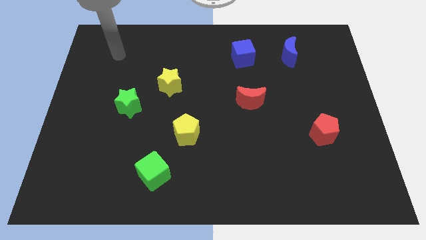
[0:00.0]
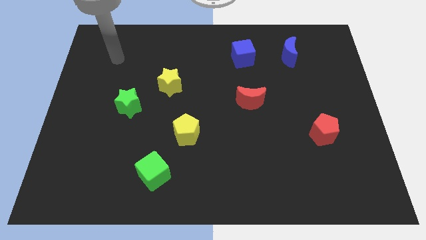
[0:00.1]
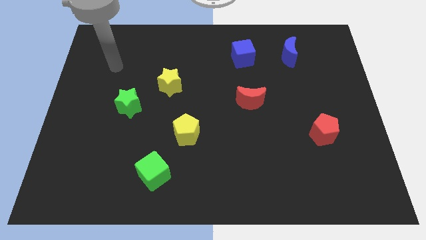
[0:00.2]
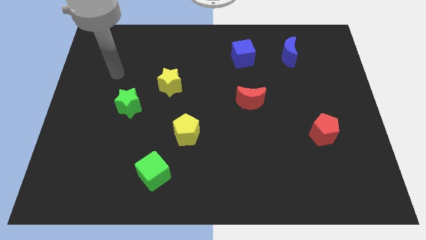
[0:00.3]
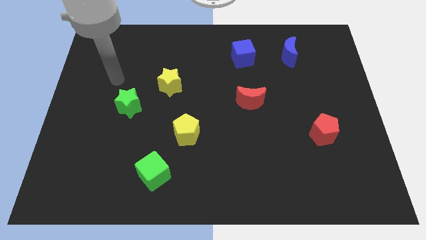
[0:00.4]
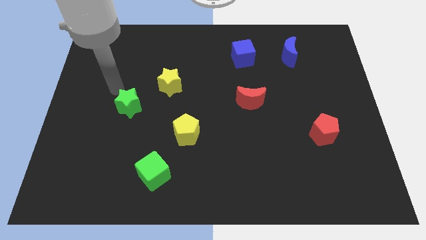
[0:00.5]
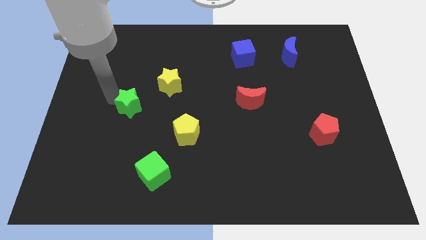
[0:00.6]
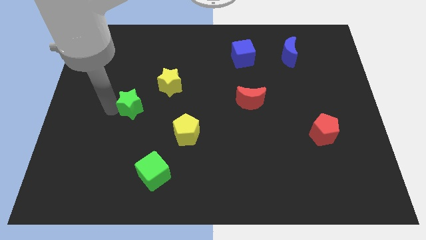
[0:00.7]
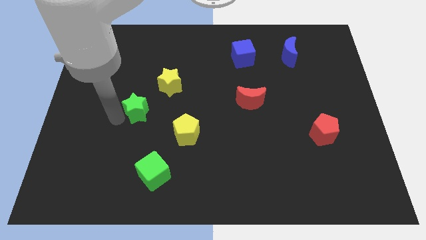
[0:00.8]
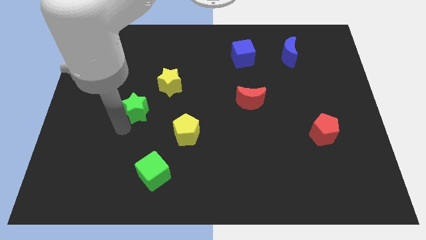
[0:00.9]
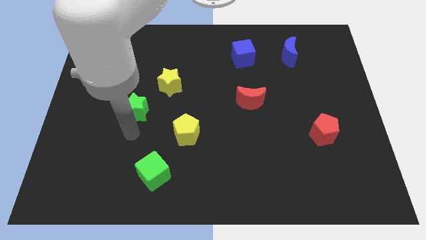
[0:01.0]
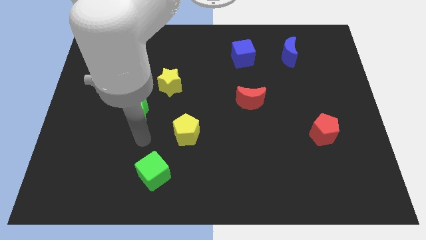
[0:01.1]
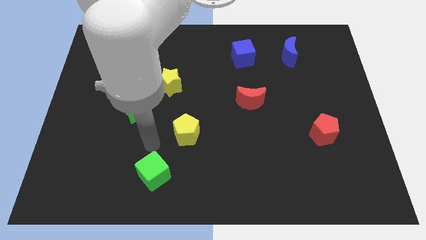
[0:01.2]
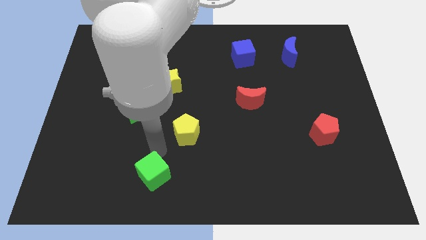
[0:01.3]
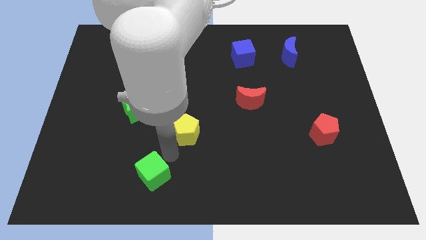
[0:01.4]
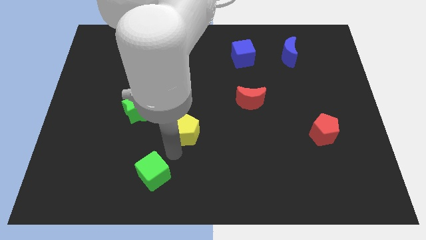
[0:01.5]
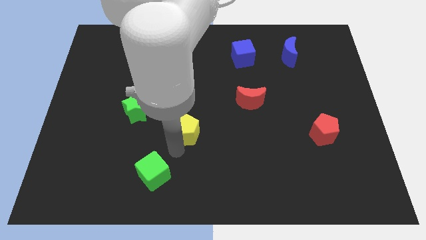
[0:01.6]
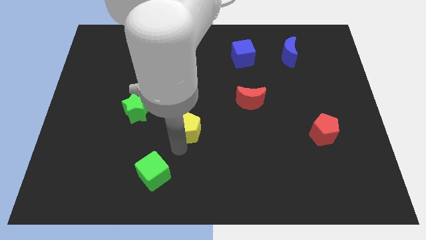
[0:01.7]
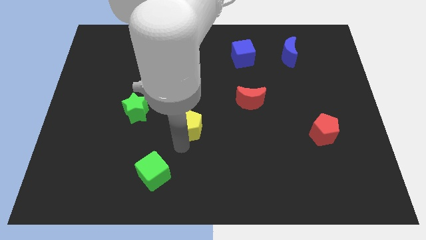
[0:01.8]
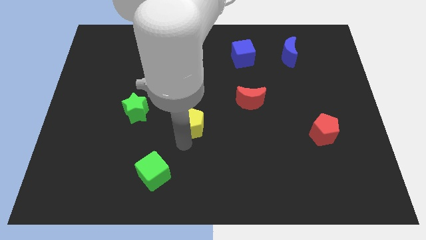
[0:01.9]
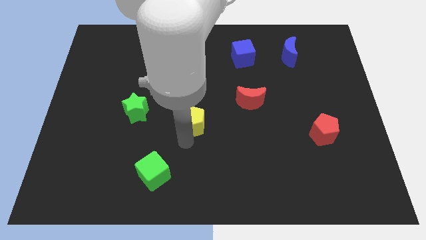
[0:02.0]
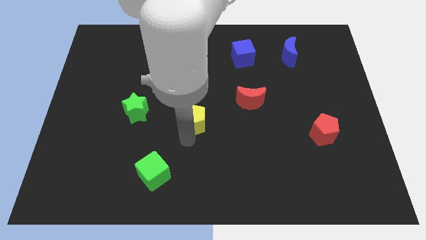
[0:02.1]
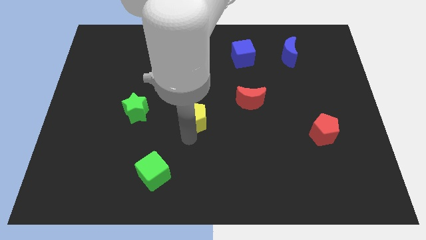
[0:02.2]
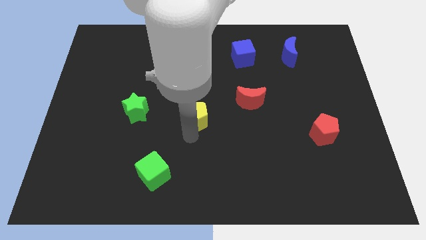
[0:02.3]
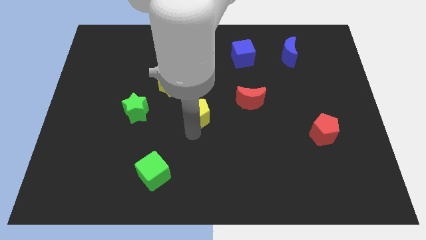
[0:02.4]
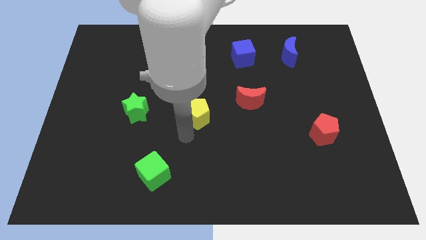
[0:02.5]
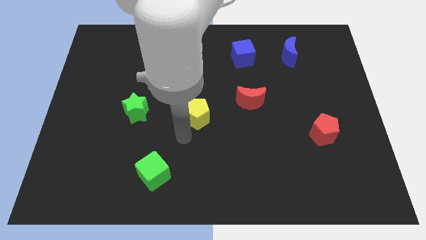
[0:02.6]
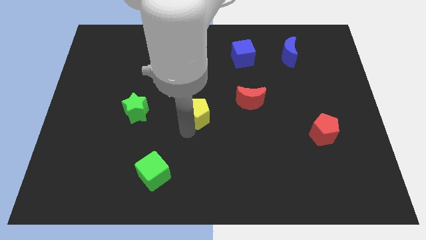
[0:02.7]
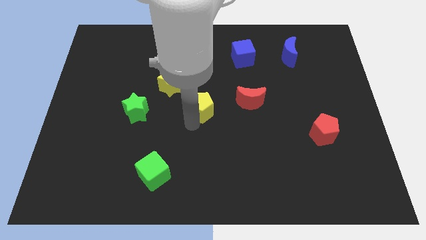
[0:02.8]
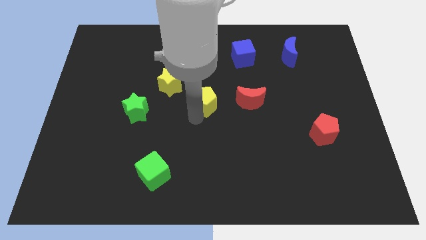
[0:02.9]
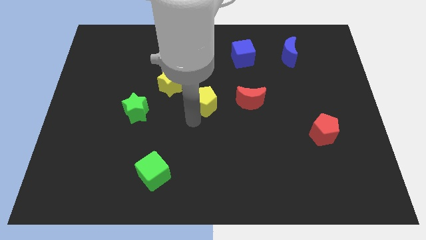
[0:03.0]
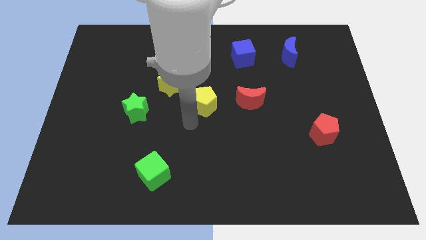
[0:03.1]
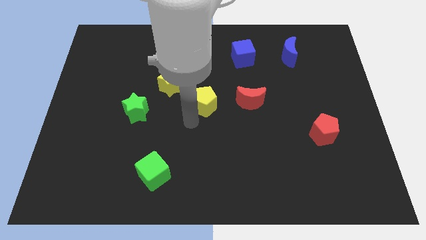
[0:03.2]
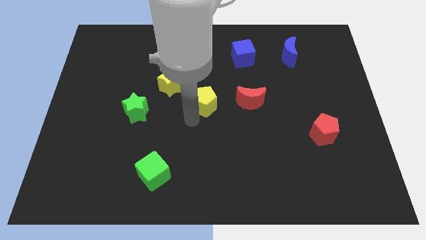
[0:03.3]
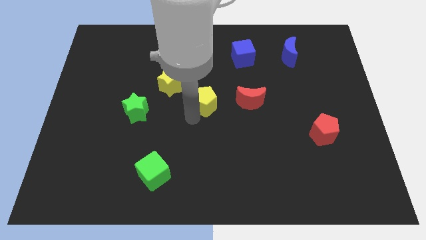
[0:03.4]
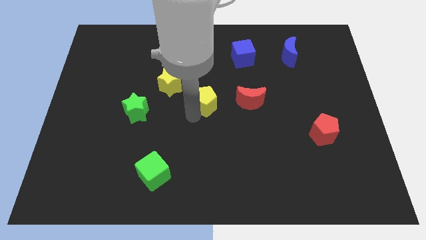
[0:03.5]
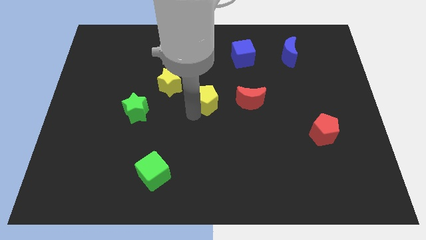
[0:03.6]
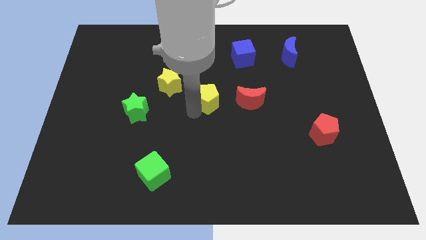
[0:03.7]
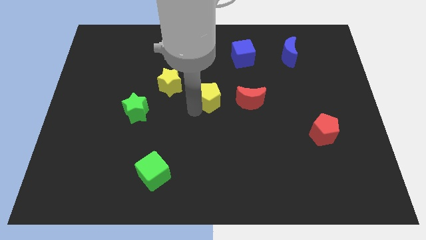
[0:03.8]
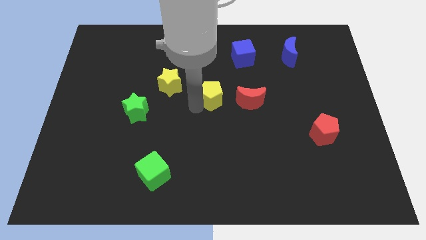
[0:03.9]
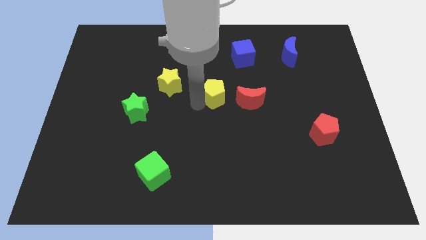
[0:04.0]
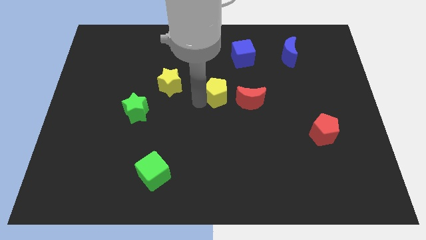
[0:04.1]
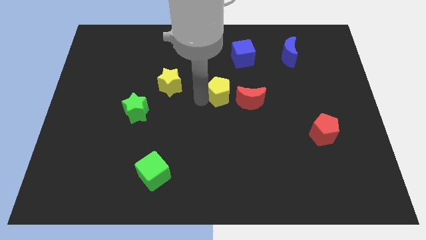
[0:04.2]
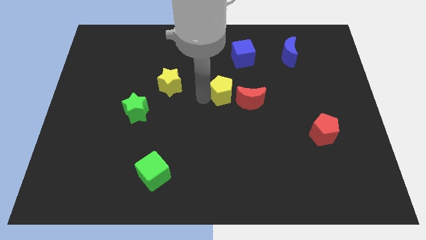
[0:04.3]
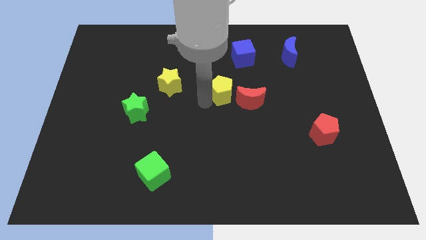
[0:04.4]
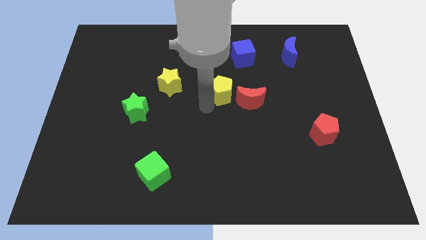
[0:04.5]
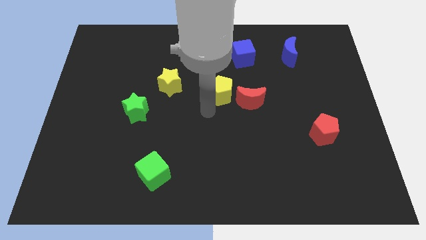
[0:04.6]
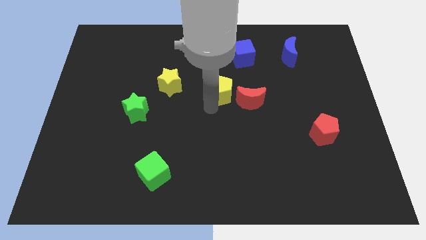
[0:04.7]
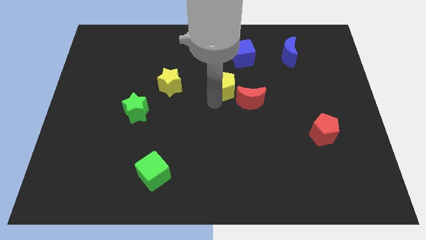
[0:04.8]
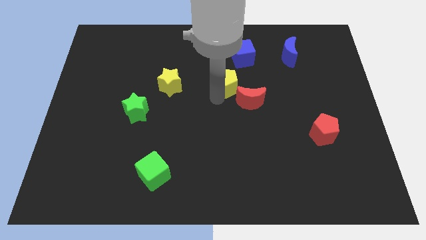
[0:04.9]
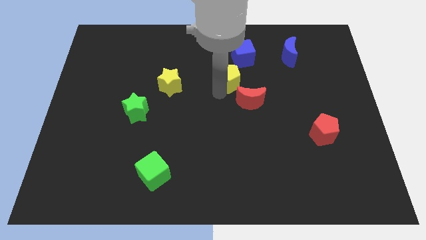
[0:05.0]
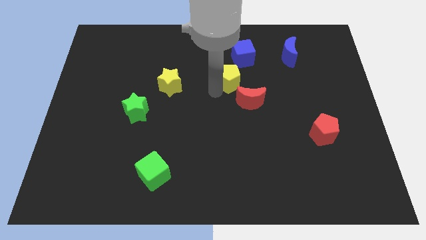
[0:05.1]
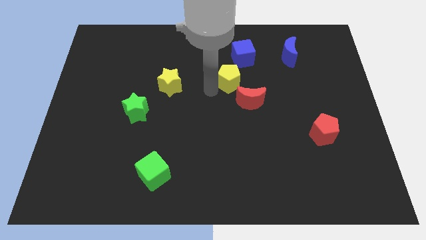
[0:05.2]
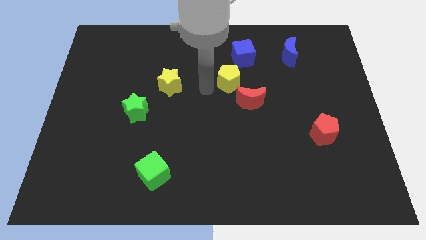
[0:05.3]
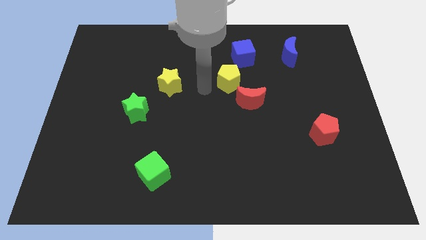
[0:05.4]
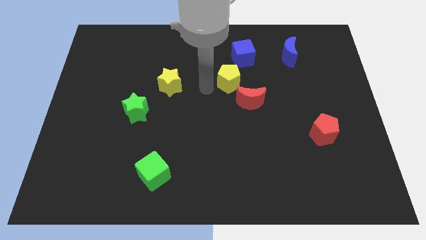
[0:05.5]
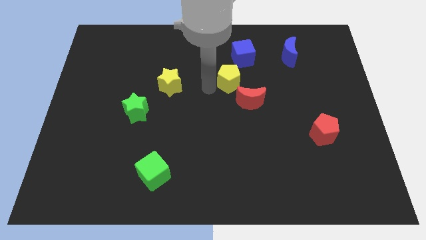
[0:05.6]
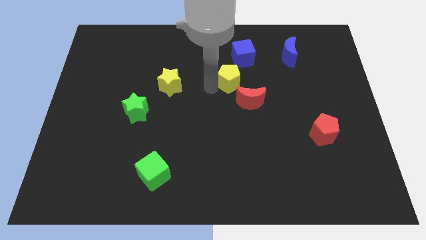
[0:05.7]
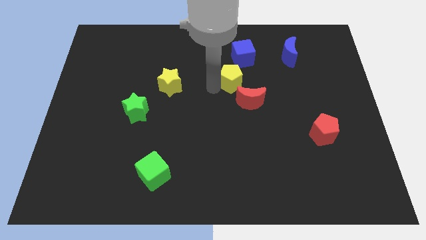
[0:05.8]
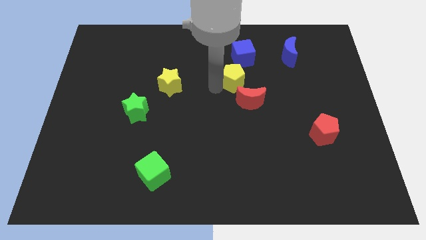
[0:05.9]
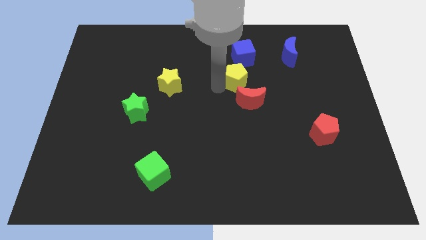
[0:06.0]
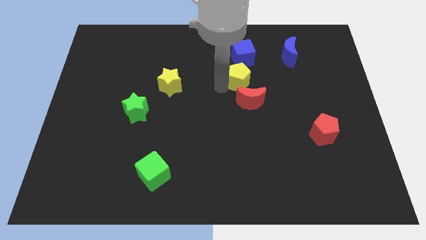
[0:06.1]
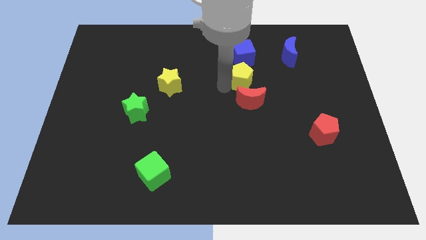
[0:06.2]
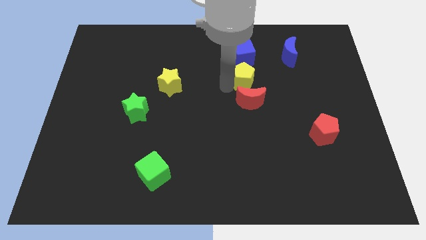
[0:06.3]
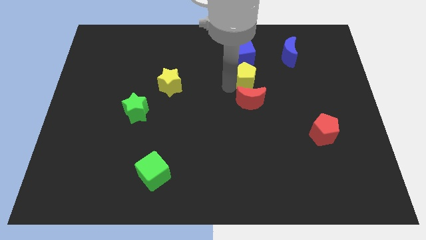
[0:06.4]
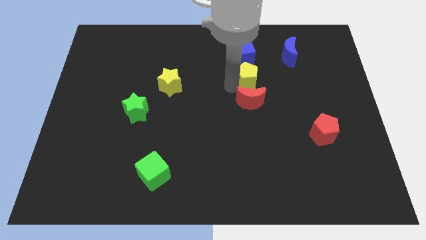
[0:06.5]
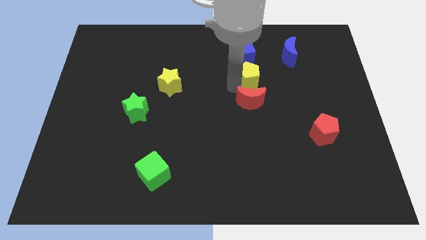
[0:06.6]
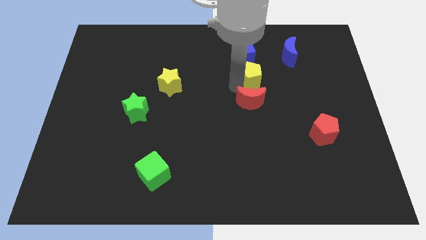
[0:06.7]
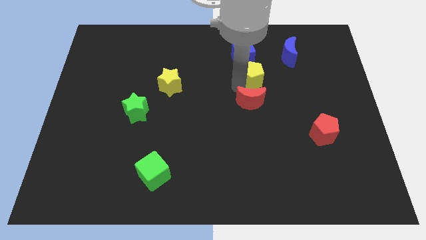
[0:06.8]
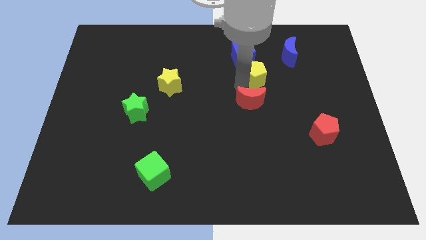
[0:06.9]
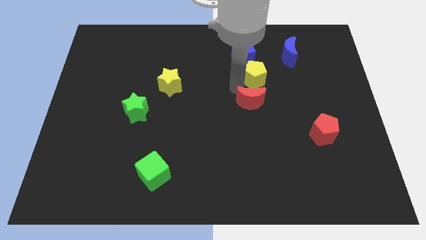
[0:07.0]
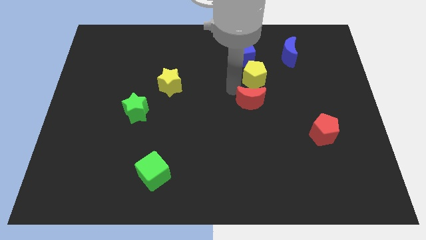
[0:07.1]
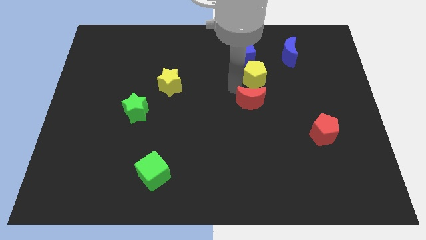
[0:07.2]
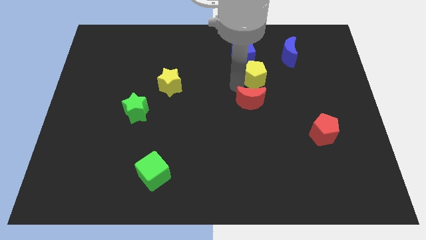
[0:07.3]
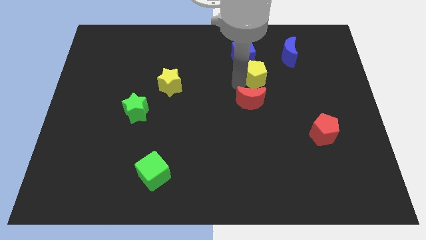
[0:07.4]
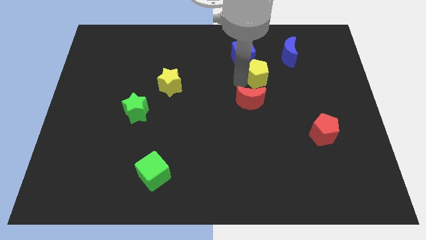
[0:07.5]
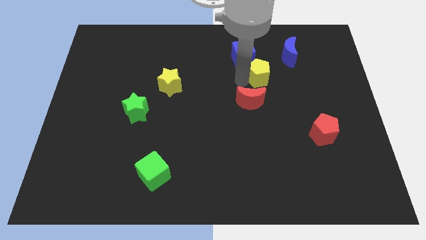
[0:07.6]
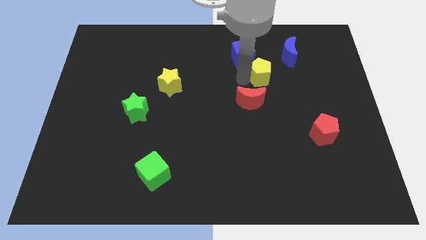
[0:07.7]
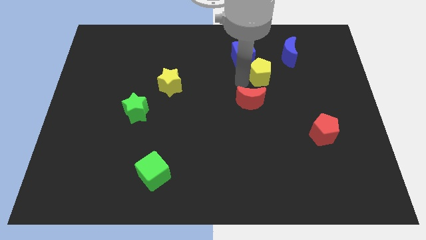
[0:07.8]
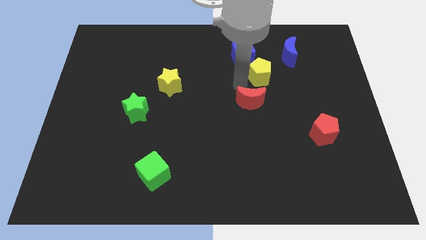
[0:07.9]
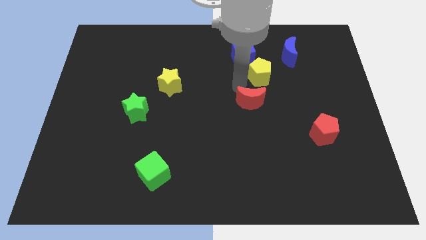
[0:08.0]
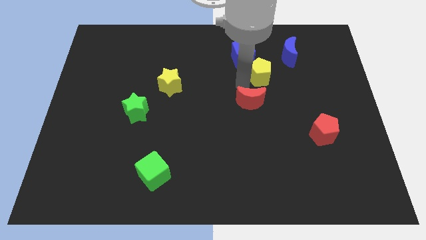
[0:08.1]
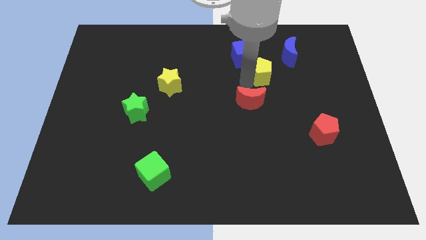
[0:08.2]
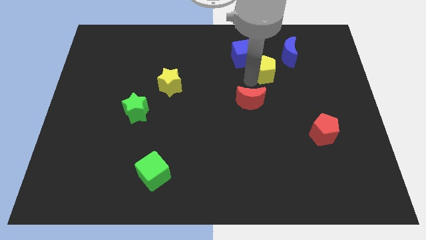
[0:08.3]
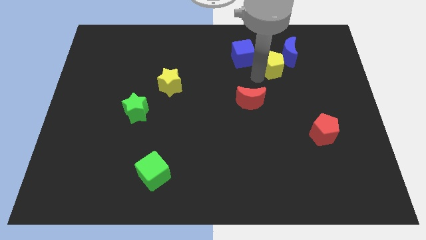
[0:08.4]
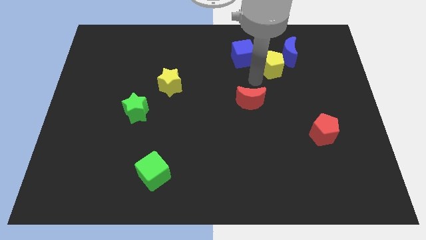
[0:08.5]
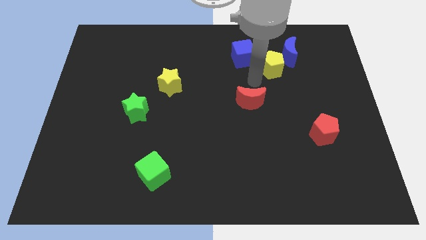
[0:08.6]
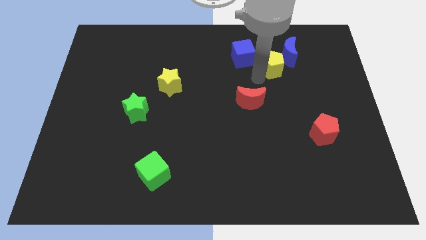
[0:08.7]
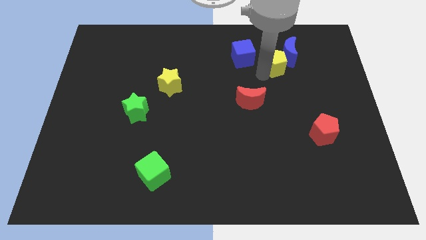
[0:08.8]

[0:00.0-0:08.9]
push the yellow pentagon towards the blue moon
